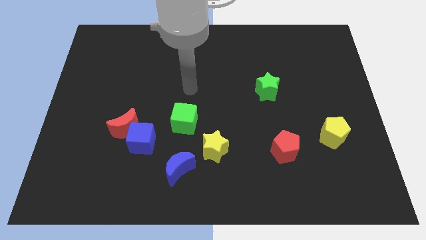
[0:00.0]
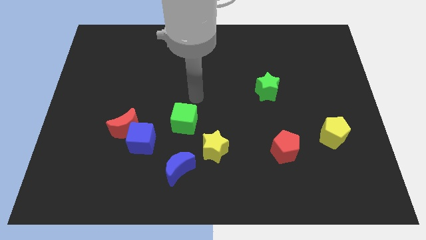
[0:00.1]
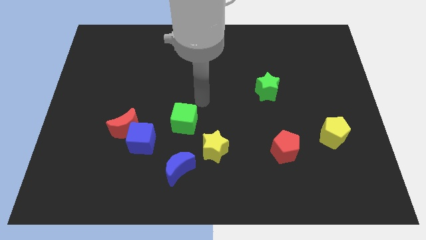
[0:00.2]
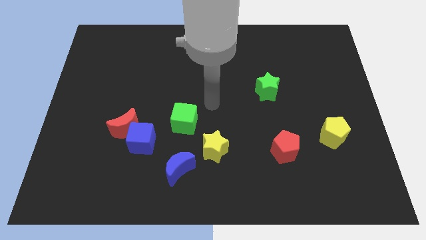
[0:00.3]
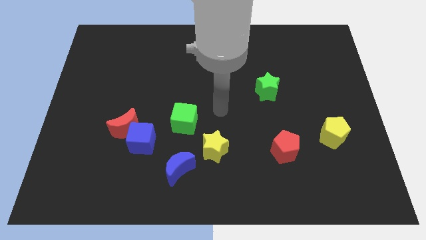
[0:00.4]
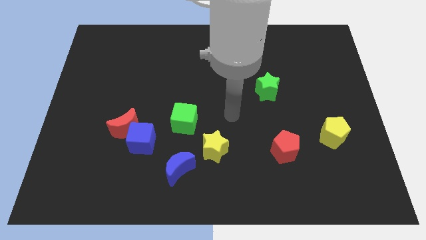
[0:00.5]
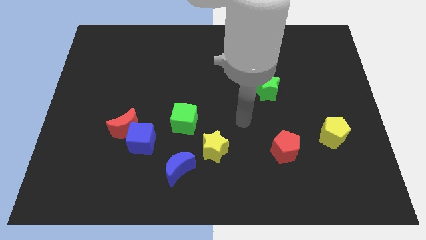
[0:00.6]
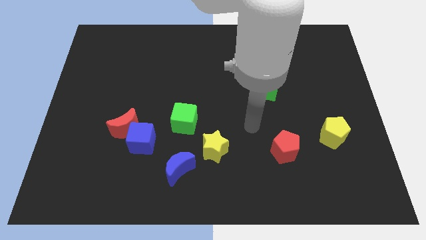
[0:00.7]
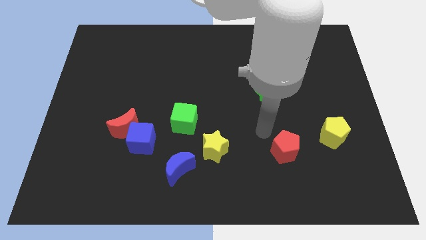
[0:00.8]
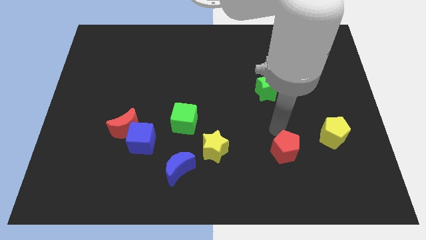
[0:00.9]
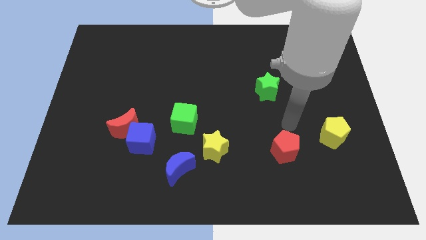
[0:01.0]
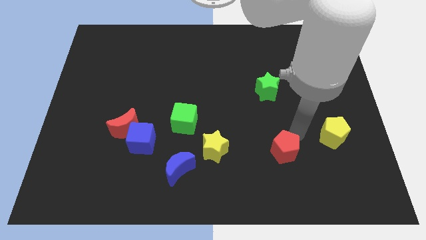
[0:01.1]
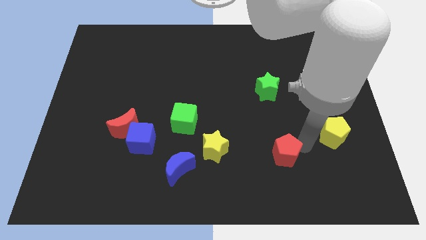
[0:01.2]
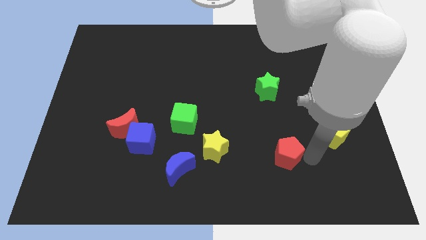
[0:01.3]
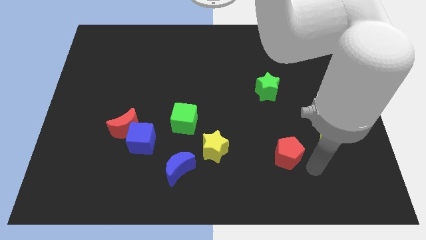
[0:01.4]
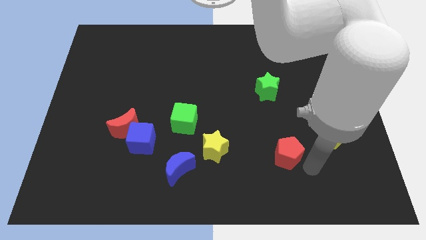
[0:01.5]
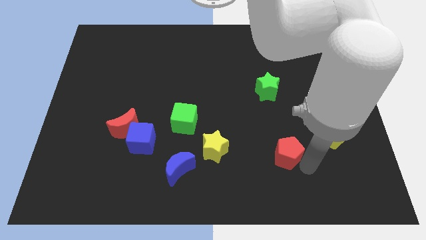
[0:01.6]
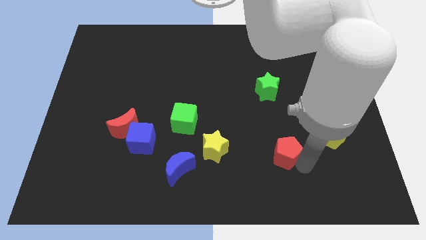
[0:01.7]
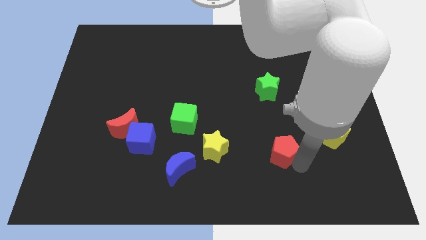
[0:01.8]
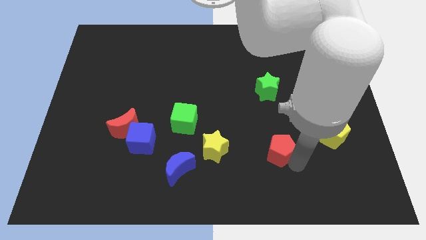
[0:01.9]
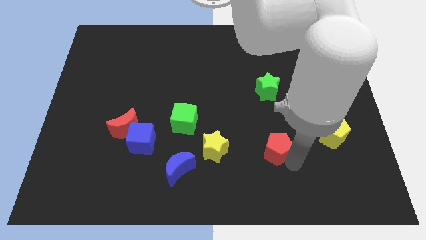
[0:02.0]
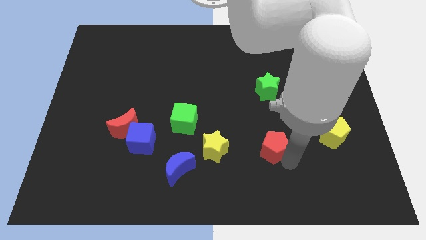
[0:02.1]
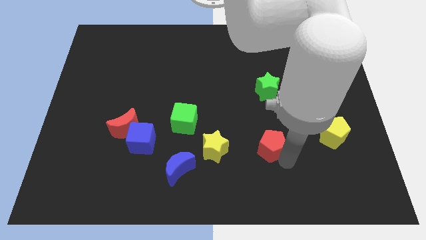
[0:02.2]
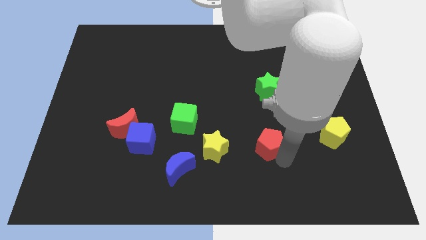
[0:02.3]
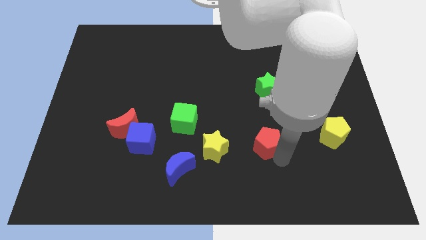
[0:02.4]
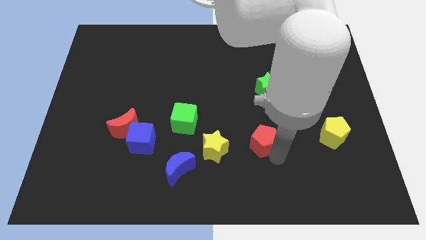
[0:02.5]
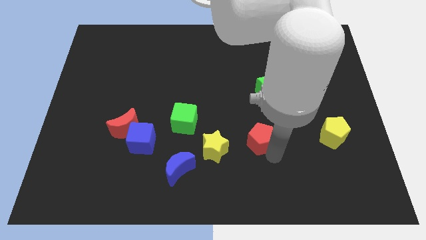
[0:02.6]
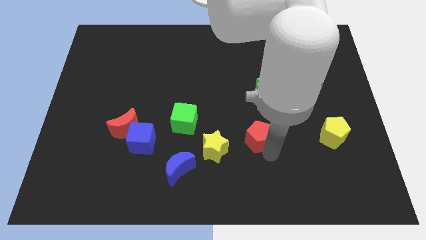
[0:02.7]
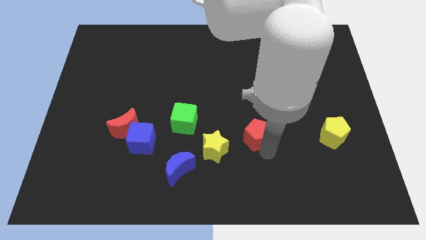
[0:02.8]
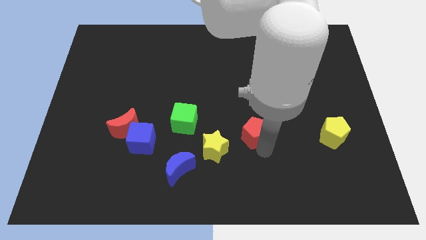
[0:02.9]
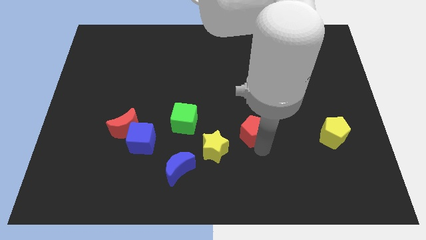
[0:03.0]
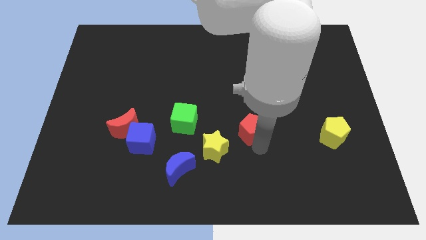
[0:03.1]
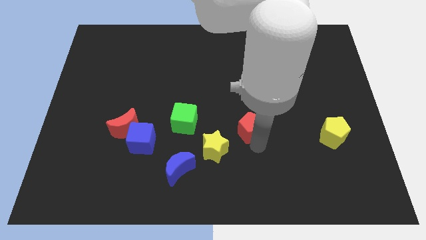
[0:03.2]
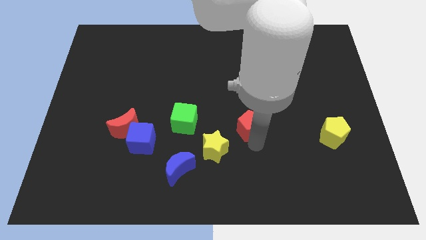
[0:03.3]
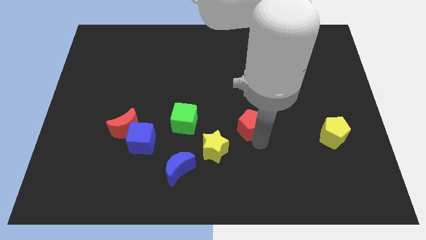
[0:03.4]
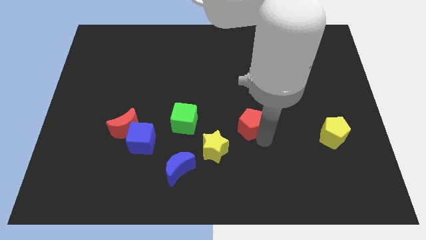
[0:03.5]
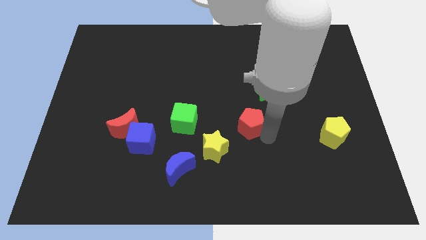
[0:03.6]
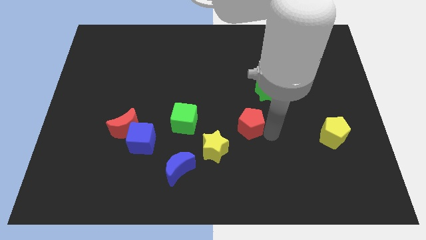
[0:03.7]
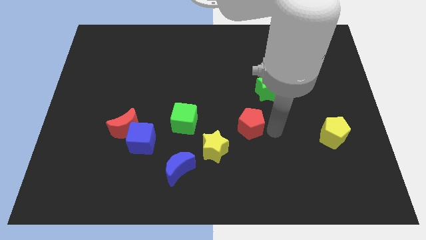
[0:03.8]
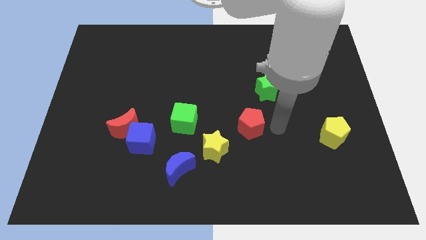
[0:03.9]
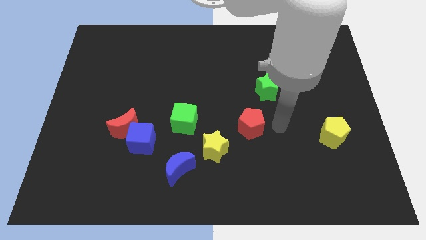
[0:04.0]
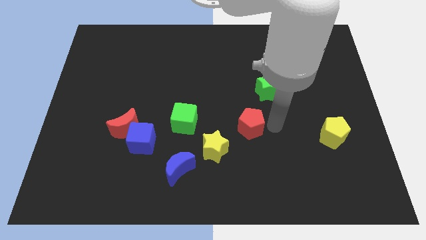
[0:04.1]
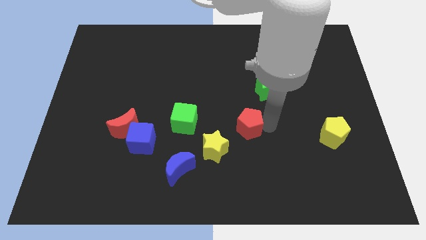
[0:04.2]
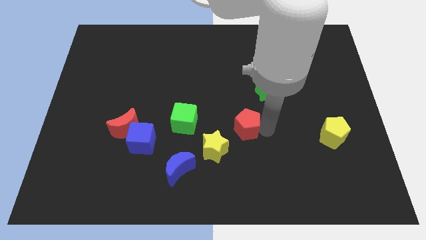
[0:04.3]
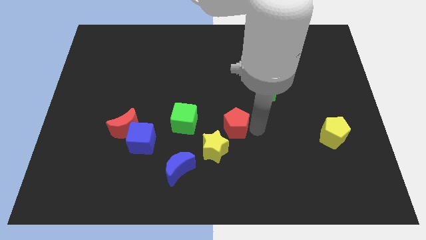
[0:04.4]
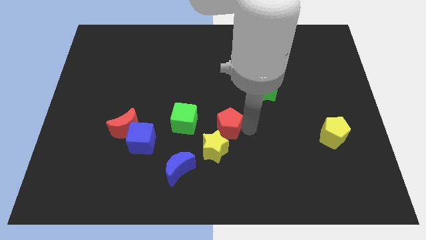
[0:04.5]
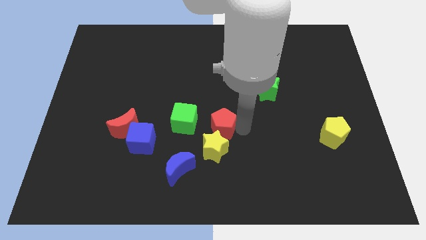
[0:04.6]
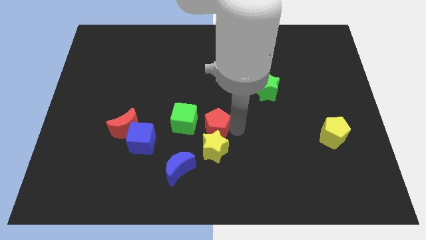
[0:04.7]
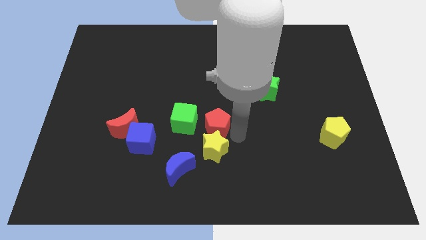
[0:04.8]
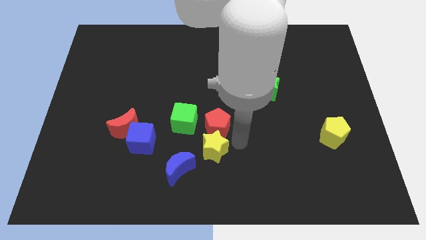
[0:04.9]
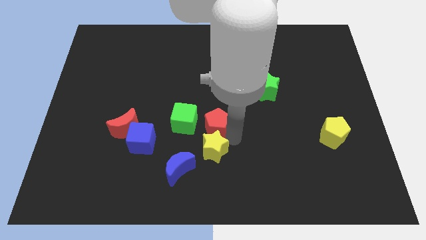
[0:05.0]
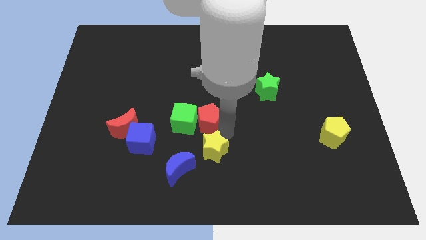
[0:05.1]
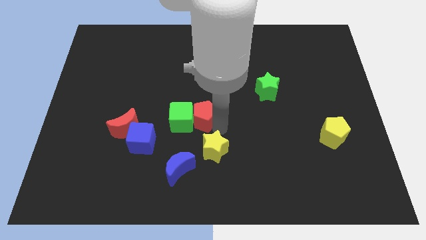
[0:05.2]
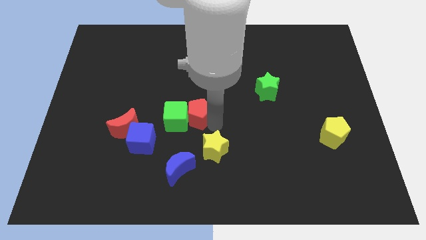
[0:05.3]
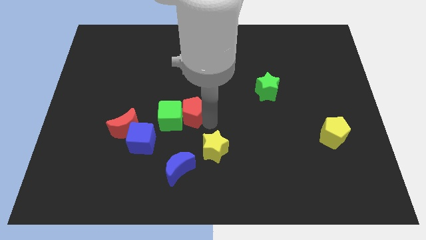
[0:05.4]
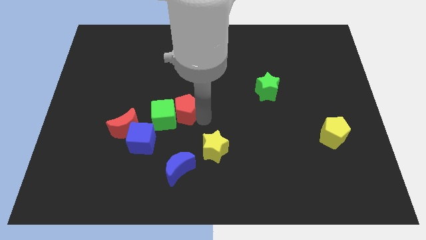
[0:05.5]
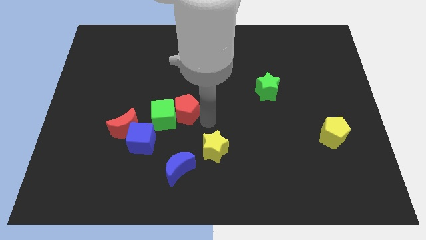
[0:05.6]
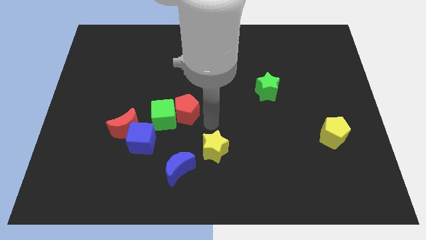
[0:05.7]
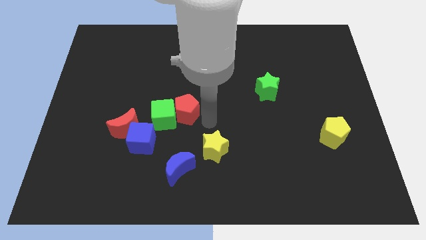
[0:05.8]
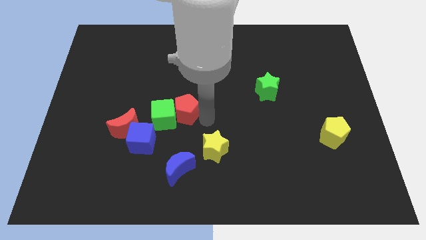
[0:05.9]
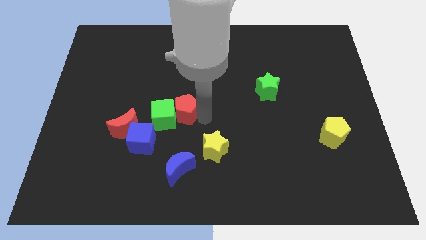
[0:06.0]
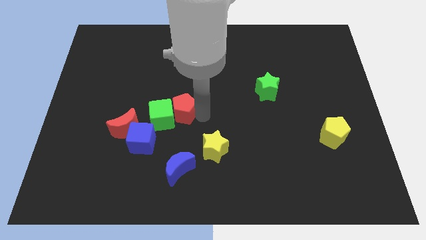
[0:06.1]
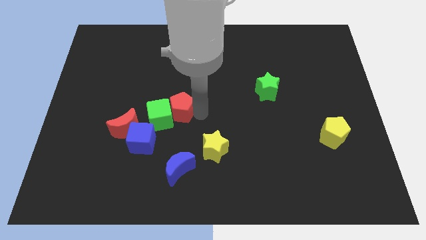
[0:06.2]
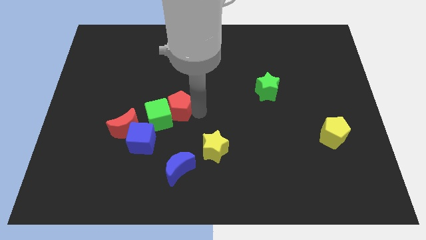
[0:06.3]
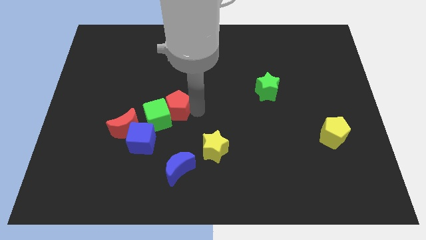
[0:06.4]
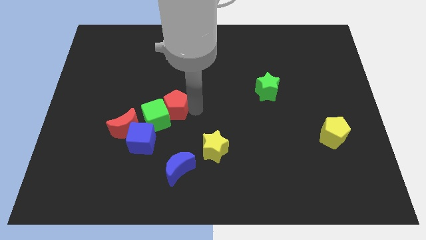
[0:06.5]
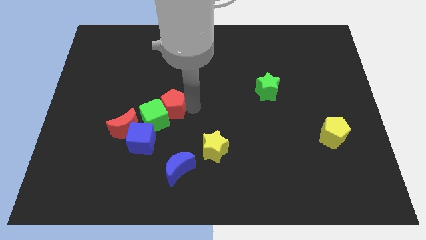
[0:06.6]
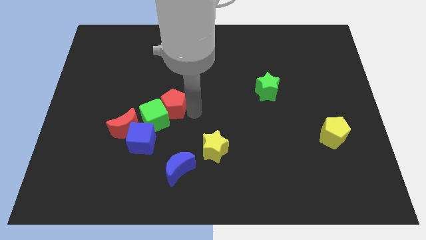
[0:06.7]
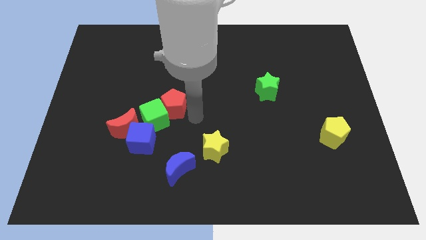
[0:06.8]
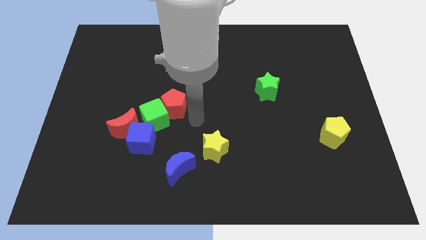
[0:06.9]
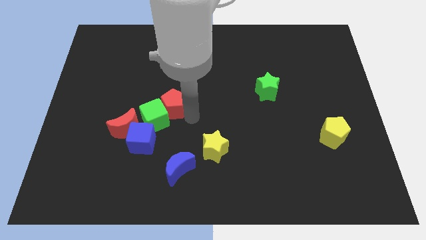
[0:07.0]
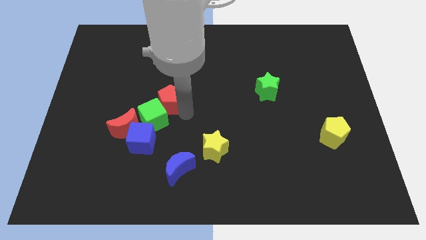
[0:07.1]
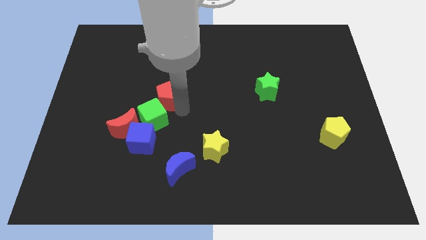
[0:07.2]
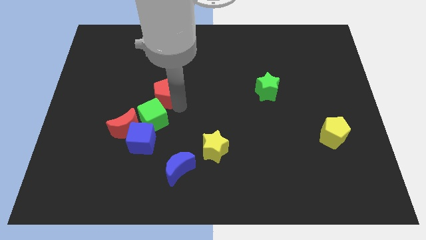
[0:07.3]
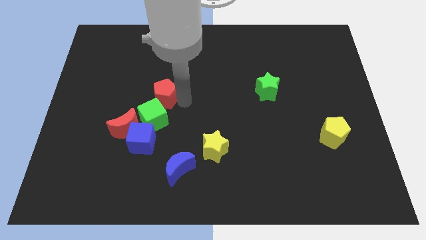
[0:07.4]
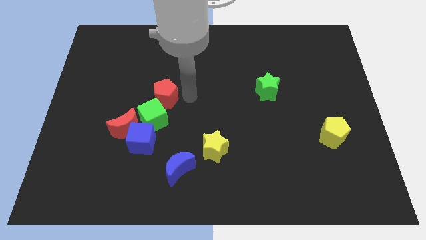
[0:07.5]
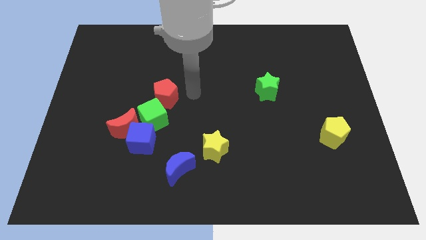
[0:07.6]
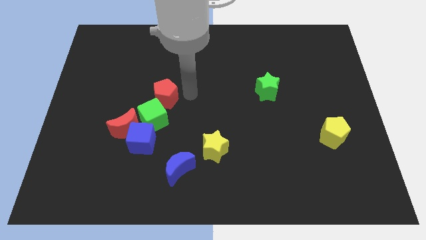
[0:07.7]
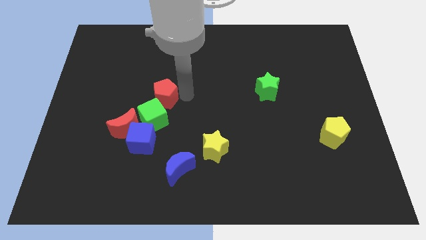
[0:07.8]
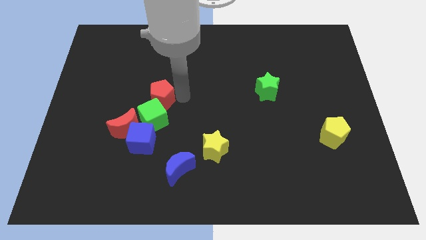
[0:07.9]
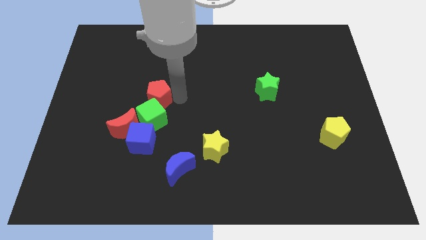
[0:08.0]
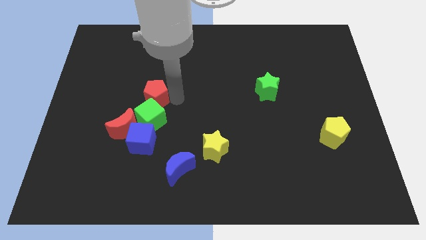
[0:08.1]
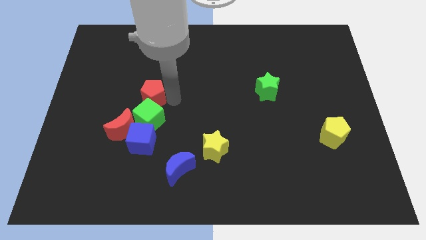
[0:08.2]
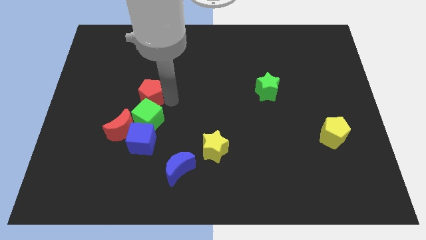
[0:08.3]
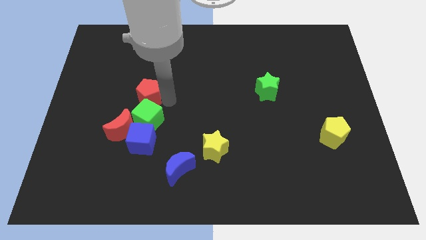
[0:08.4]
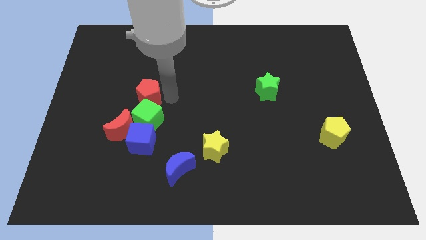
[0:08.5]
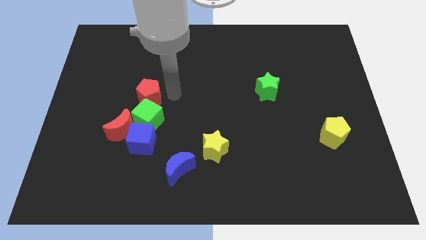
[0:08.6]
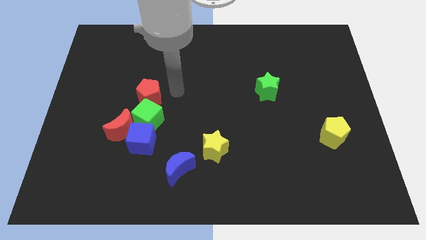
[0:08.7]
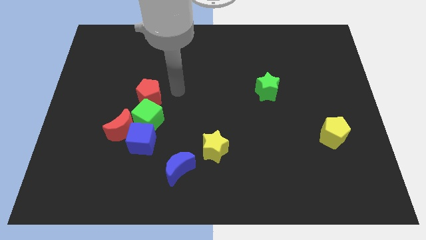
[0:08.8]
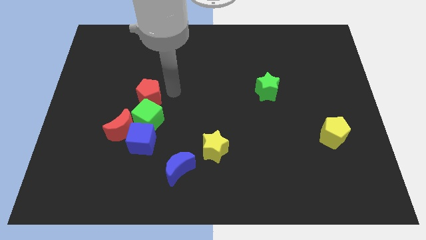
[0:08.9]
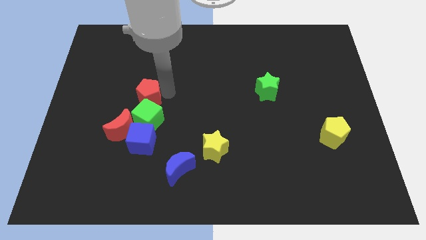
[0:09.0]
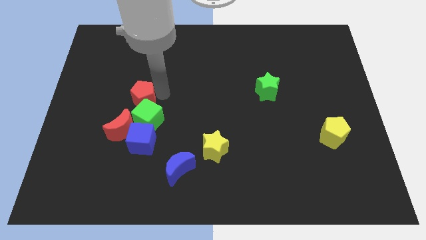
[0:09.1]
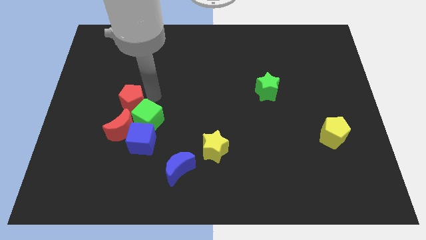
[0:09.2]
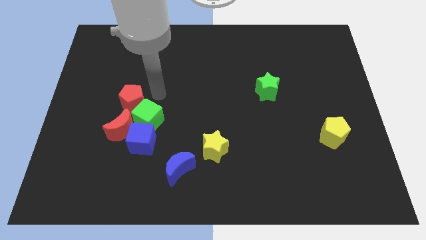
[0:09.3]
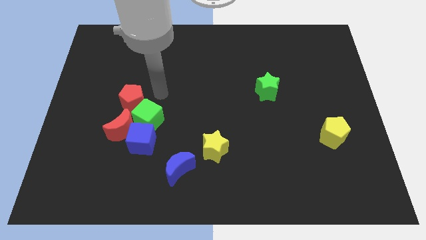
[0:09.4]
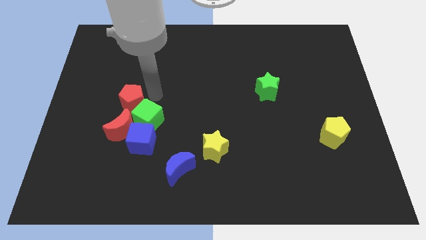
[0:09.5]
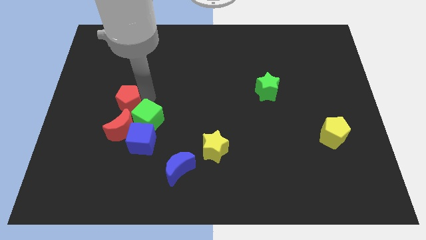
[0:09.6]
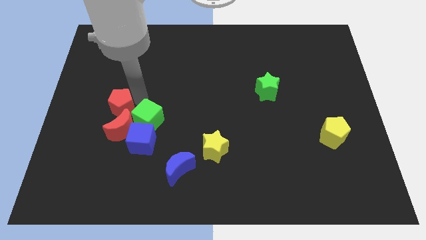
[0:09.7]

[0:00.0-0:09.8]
push the red pentagon to the top left of the red moon
